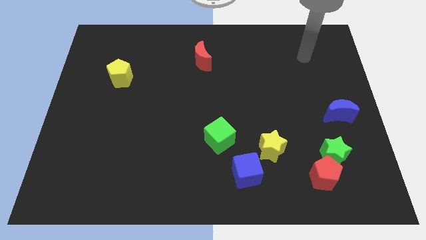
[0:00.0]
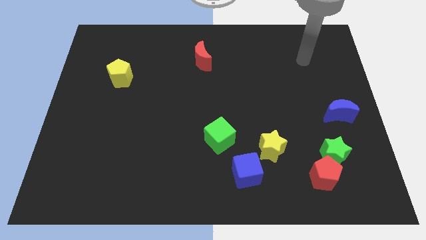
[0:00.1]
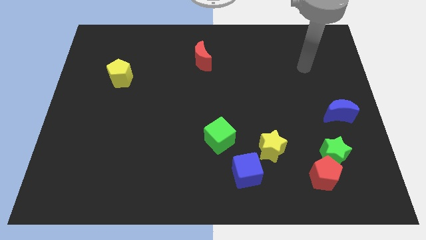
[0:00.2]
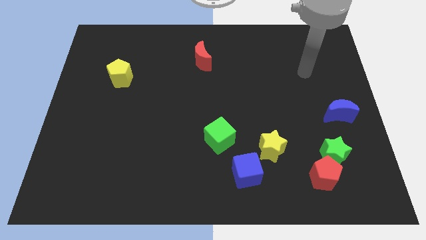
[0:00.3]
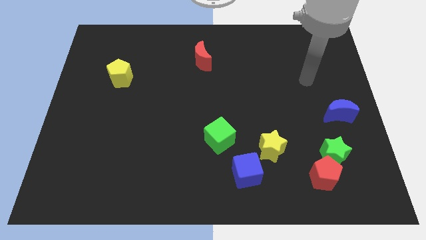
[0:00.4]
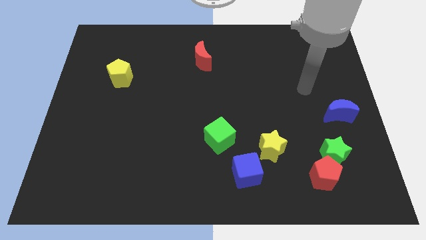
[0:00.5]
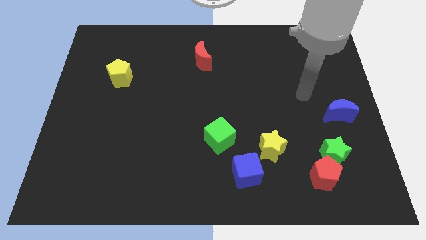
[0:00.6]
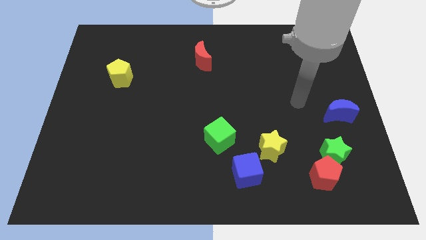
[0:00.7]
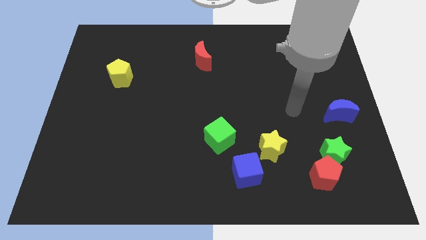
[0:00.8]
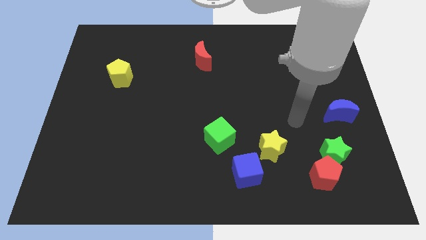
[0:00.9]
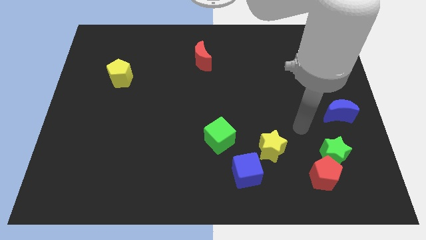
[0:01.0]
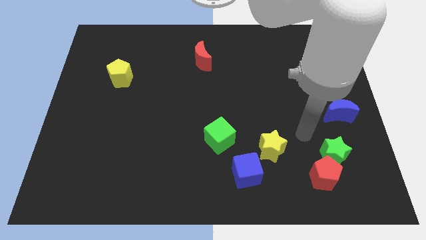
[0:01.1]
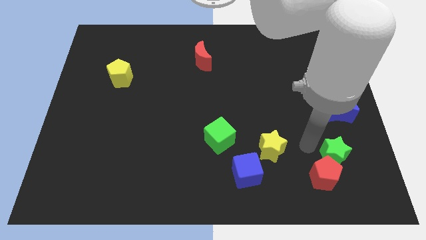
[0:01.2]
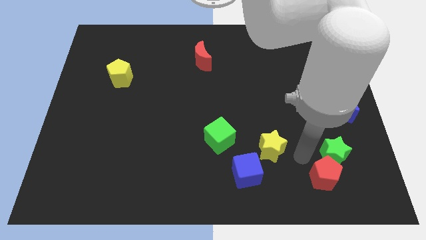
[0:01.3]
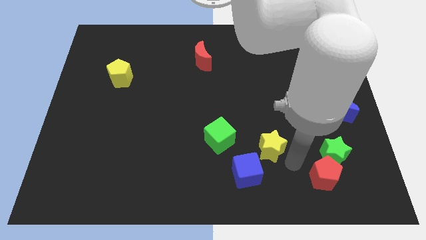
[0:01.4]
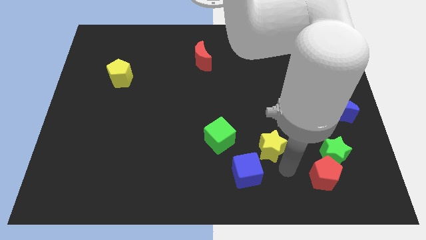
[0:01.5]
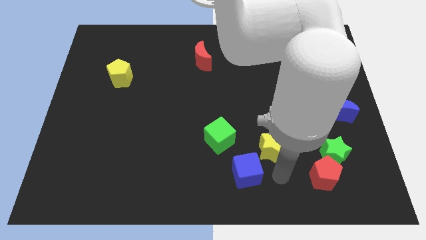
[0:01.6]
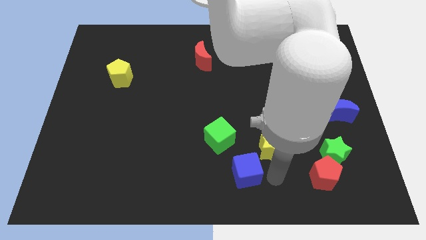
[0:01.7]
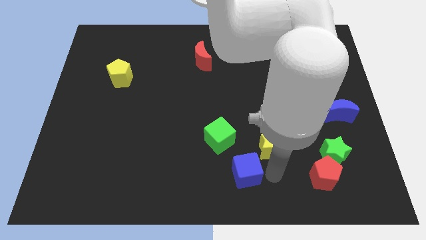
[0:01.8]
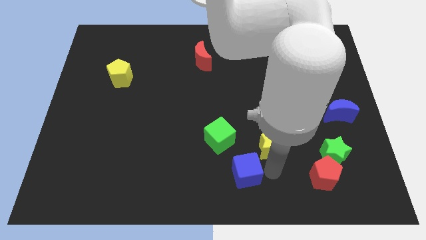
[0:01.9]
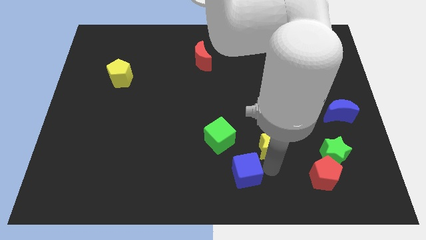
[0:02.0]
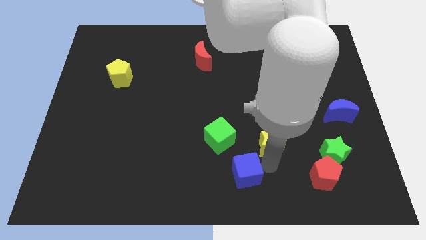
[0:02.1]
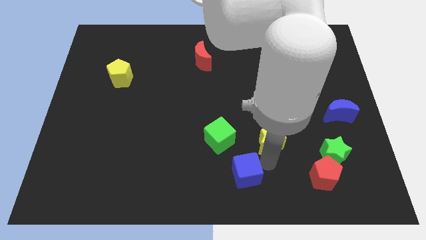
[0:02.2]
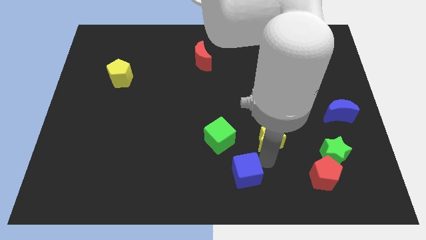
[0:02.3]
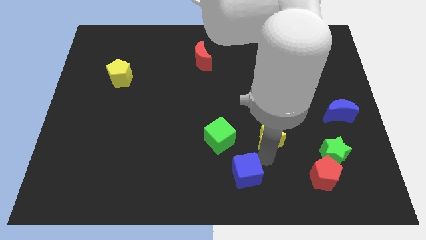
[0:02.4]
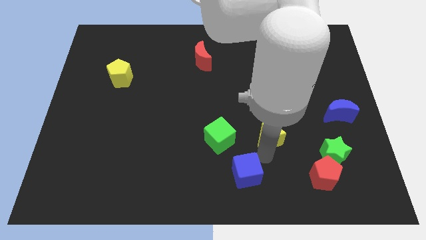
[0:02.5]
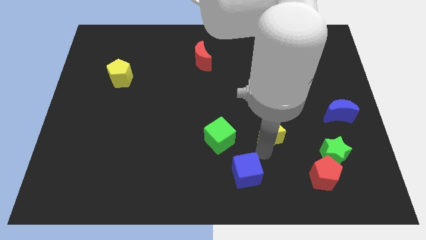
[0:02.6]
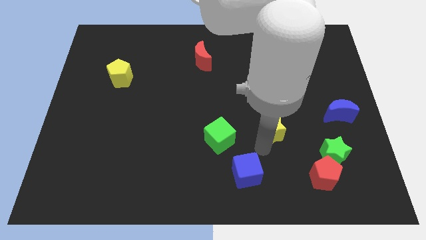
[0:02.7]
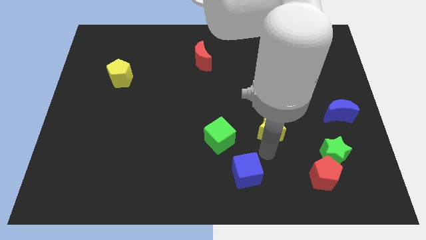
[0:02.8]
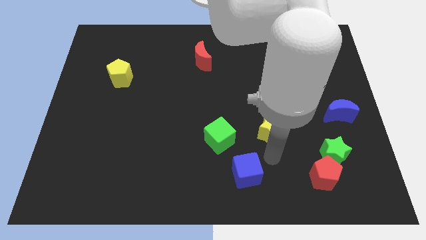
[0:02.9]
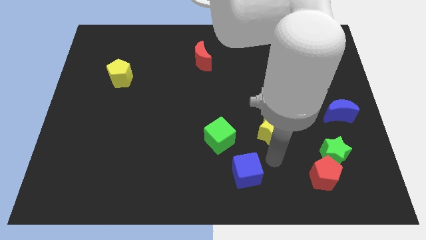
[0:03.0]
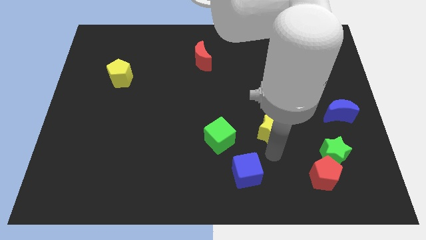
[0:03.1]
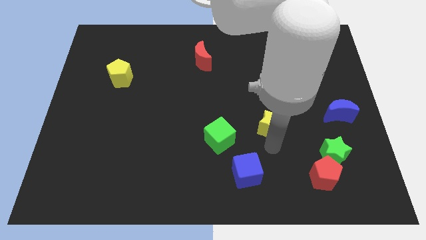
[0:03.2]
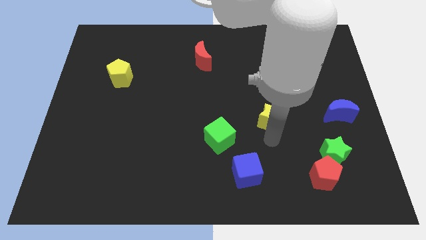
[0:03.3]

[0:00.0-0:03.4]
slide the yellow star a bit up

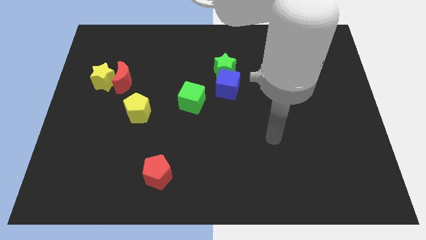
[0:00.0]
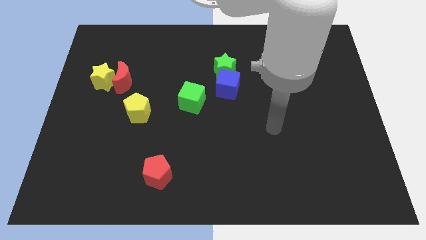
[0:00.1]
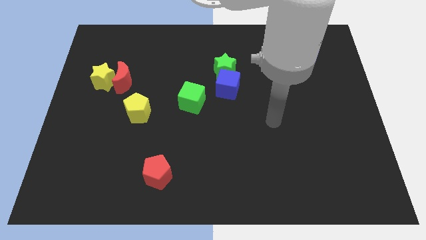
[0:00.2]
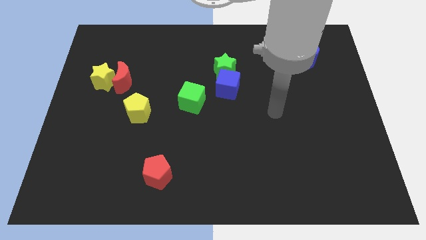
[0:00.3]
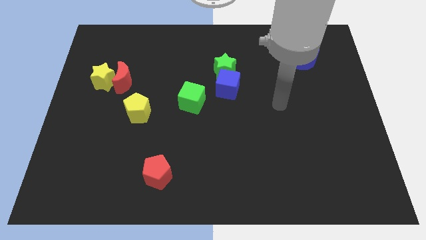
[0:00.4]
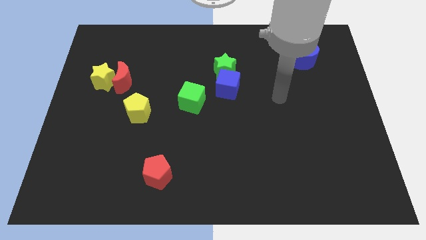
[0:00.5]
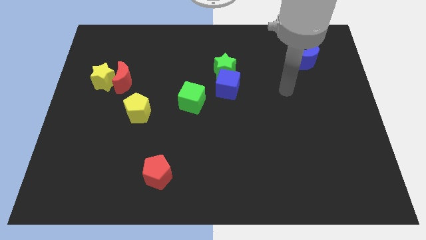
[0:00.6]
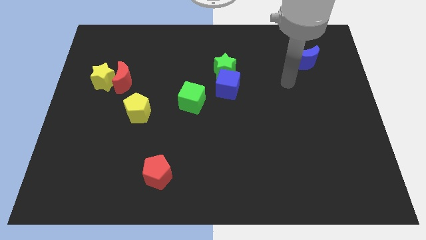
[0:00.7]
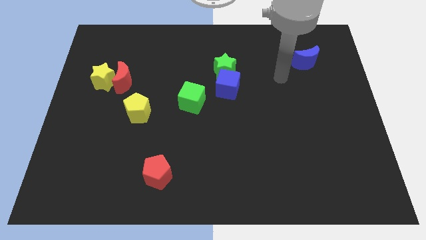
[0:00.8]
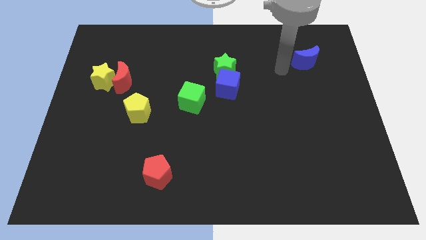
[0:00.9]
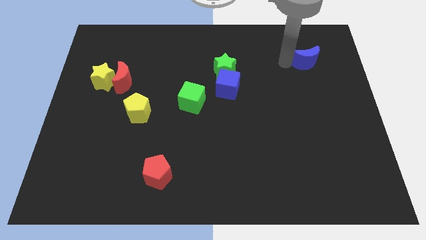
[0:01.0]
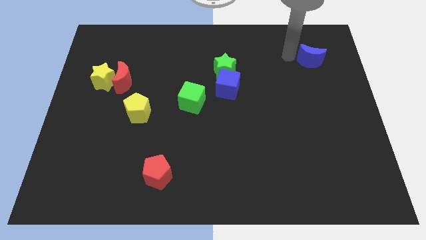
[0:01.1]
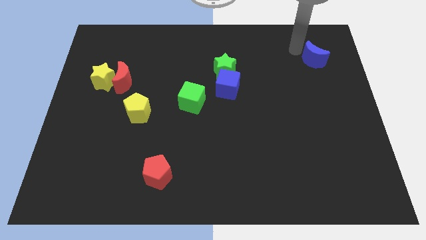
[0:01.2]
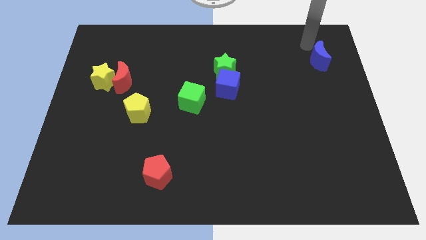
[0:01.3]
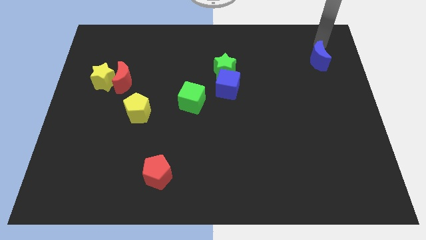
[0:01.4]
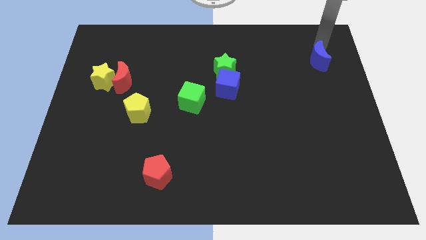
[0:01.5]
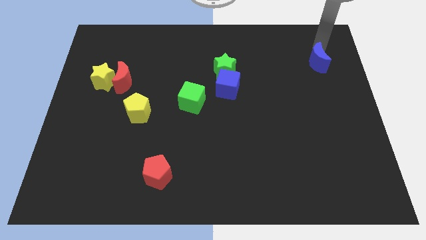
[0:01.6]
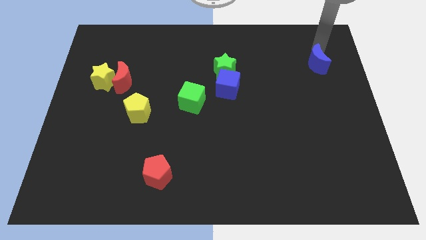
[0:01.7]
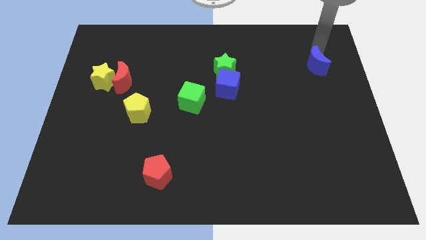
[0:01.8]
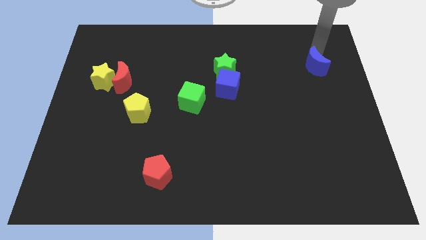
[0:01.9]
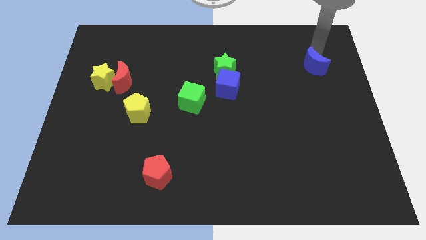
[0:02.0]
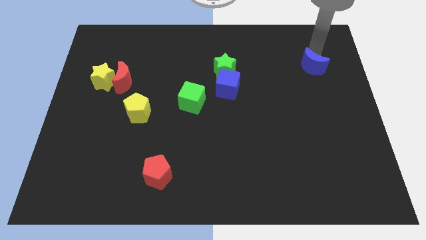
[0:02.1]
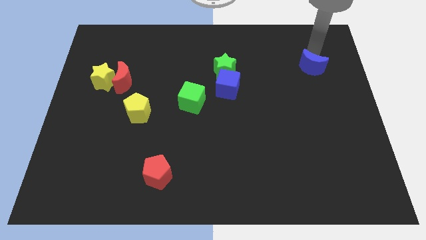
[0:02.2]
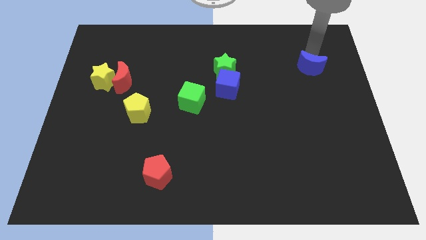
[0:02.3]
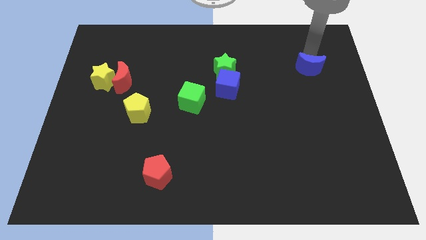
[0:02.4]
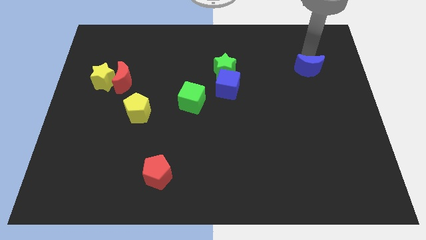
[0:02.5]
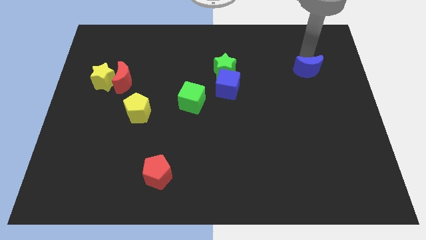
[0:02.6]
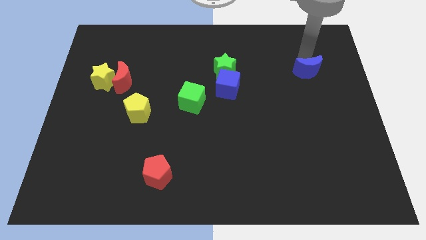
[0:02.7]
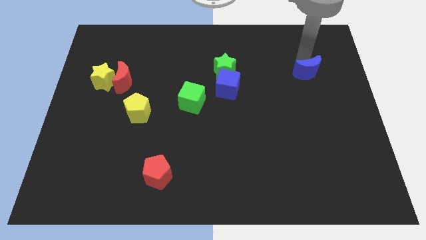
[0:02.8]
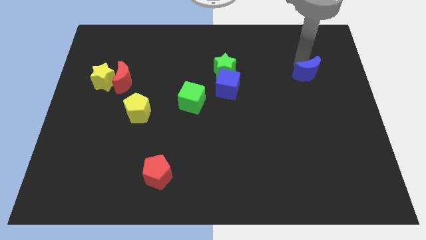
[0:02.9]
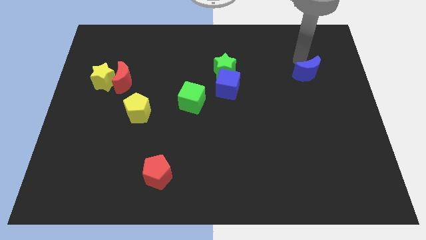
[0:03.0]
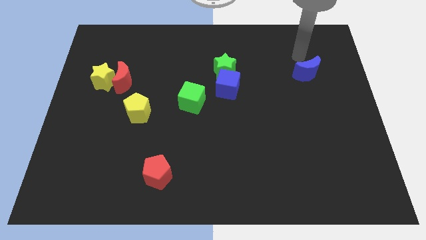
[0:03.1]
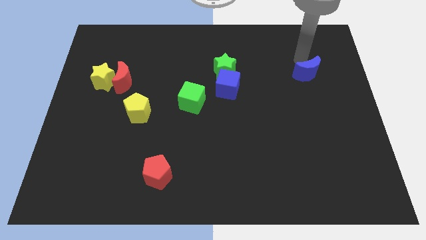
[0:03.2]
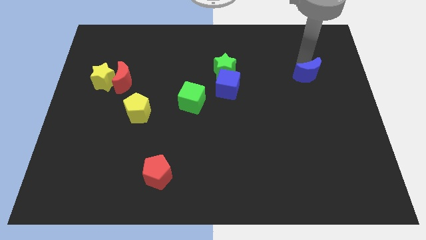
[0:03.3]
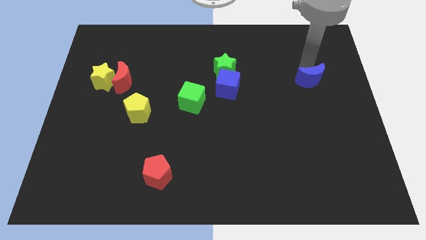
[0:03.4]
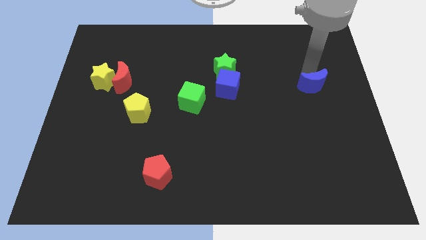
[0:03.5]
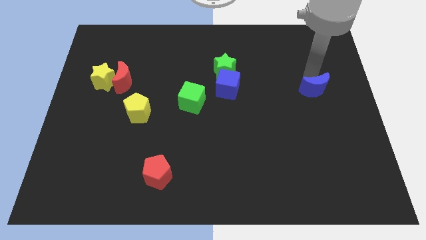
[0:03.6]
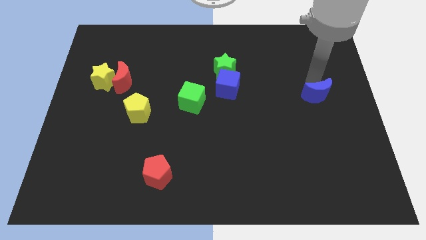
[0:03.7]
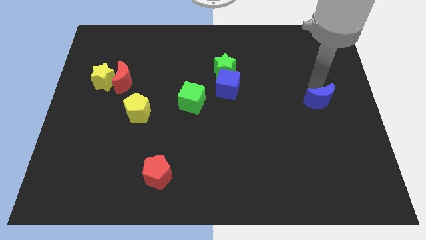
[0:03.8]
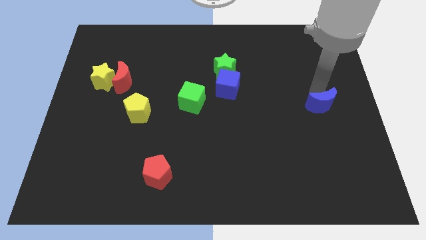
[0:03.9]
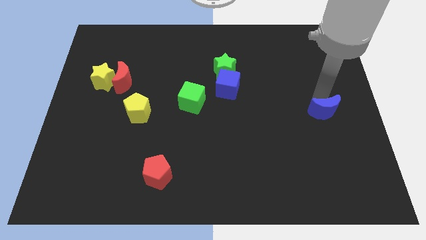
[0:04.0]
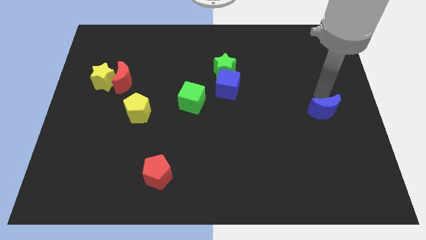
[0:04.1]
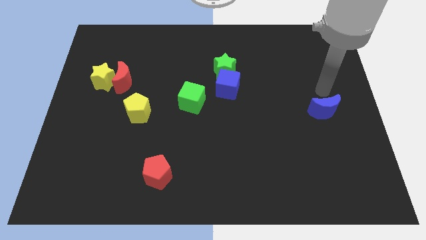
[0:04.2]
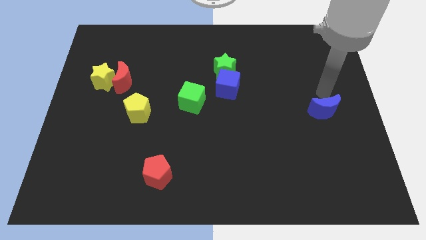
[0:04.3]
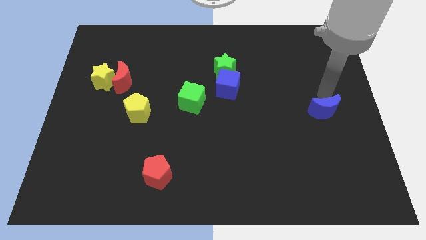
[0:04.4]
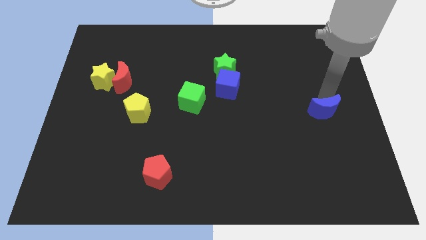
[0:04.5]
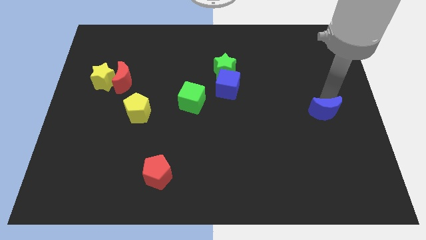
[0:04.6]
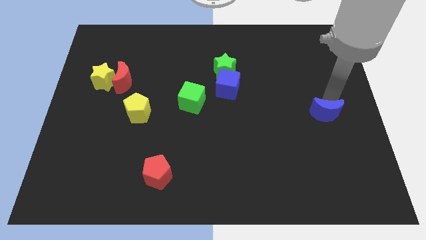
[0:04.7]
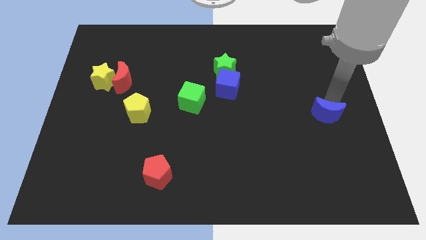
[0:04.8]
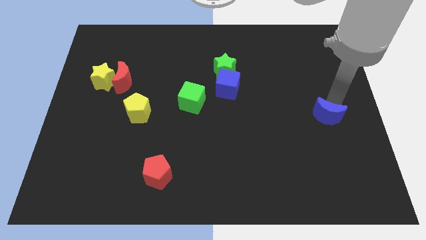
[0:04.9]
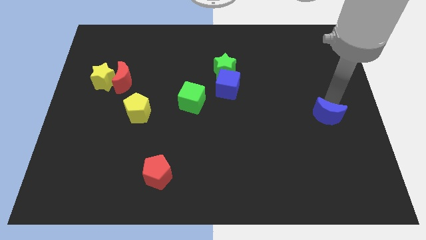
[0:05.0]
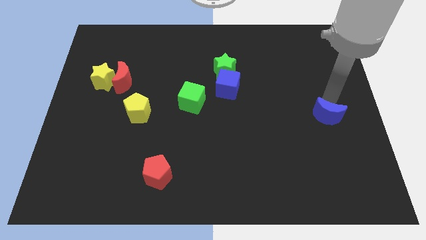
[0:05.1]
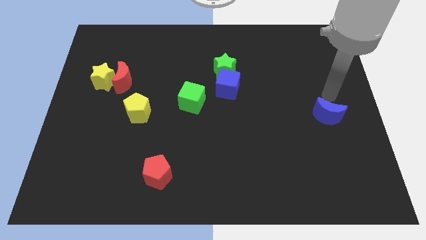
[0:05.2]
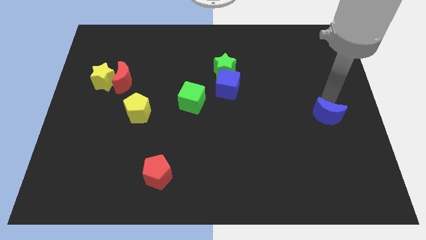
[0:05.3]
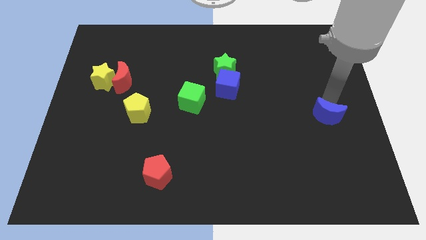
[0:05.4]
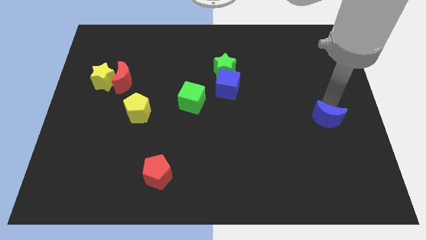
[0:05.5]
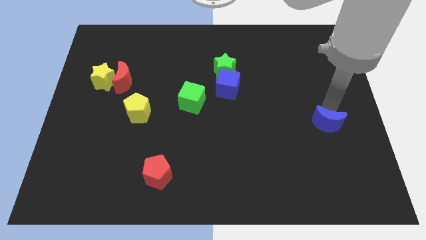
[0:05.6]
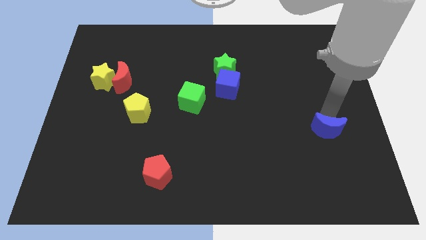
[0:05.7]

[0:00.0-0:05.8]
slide the blue moon downwards
